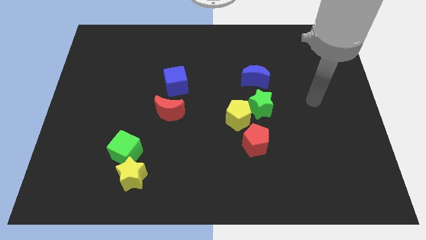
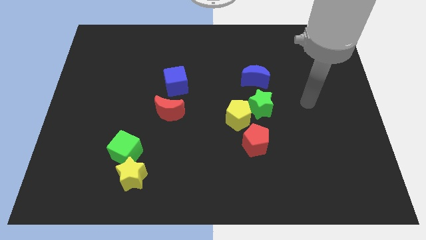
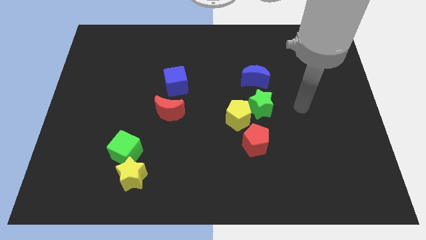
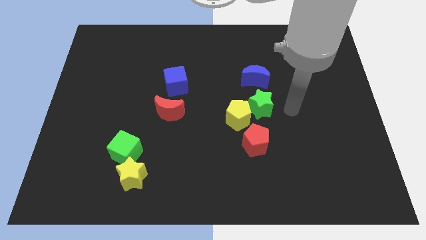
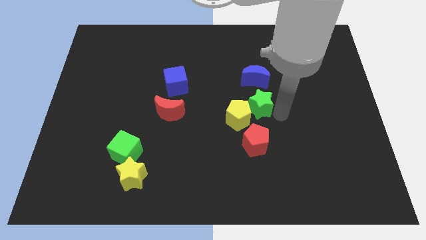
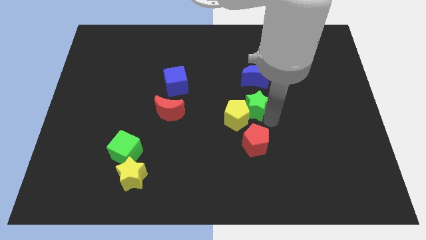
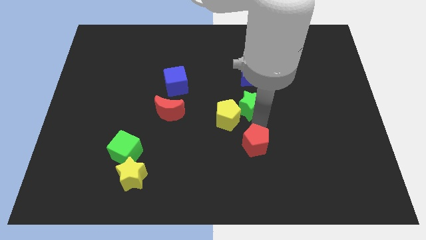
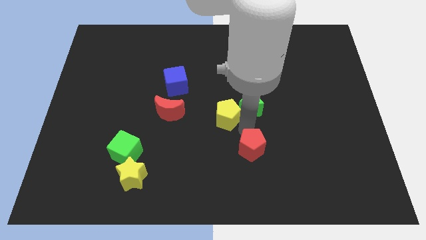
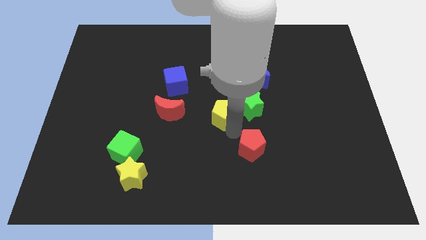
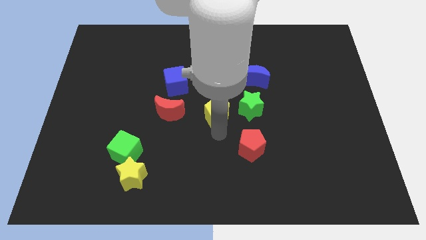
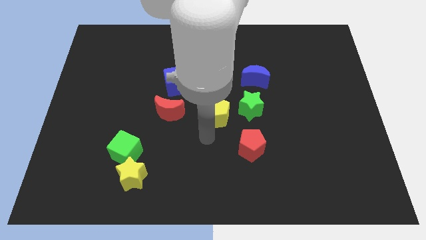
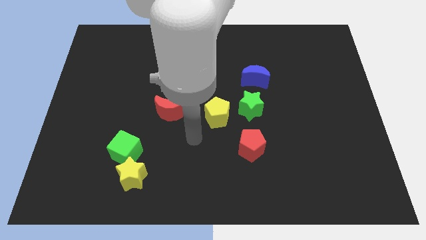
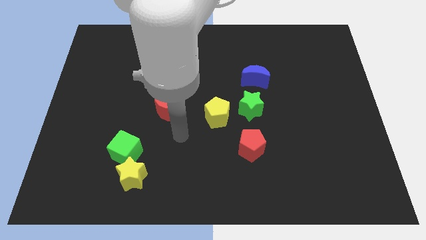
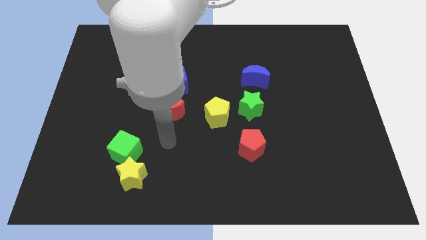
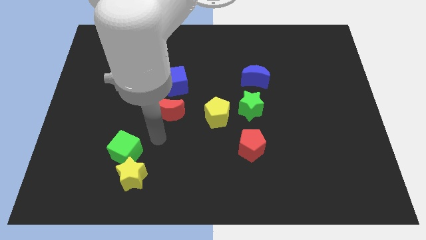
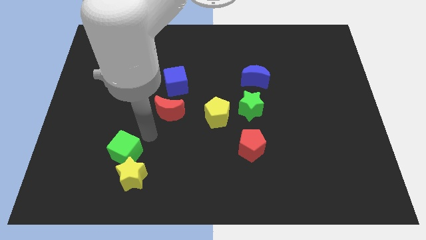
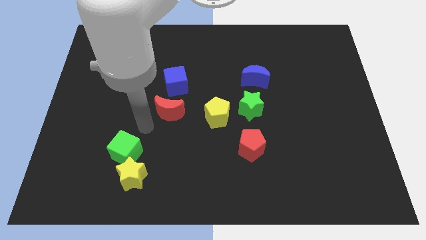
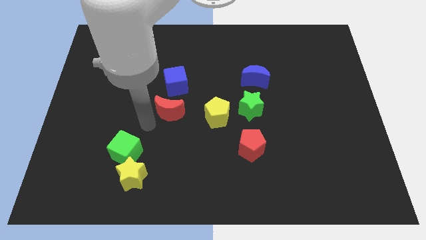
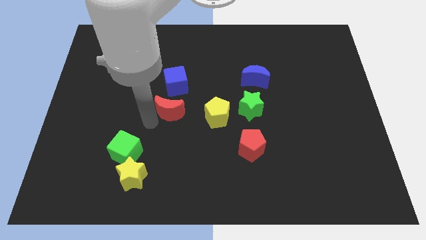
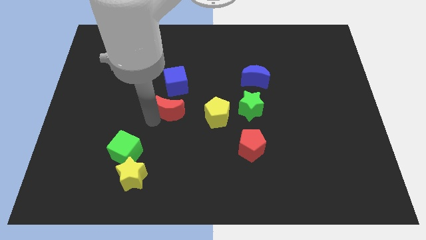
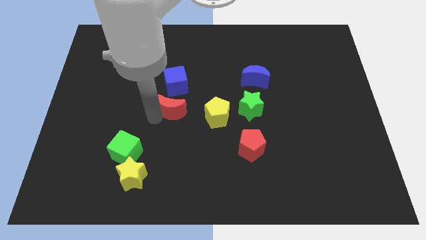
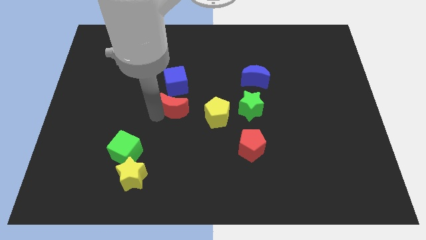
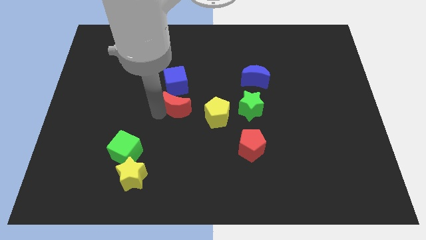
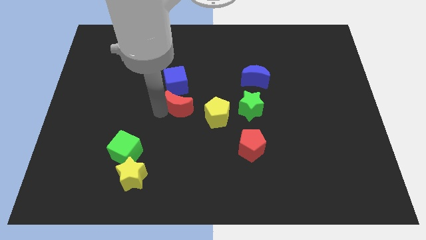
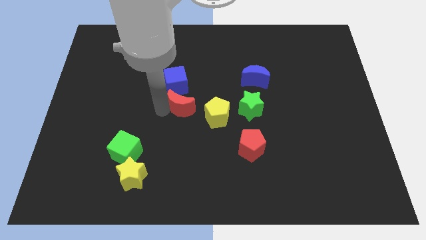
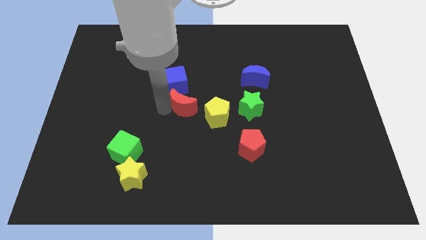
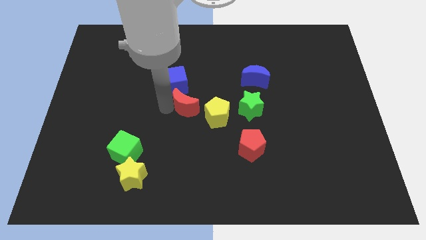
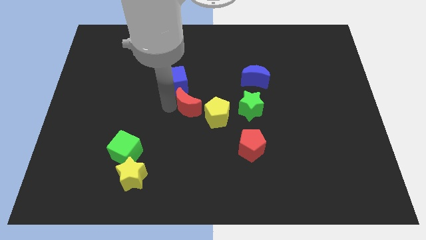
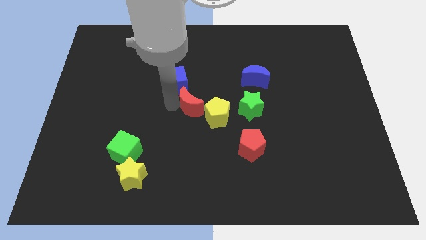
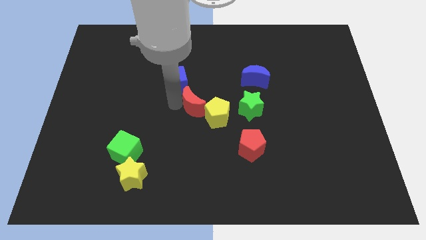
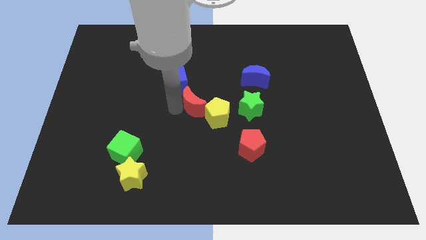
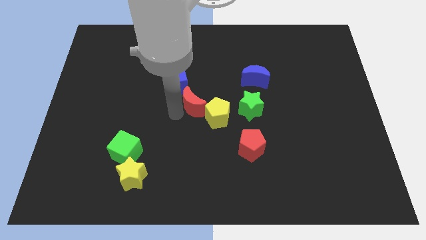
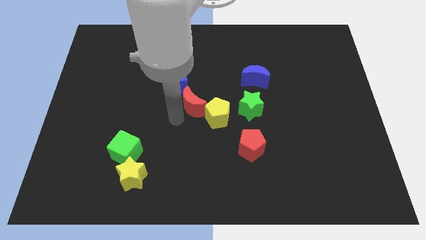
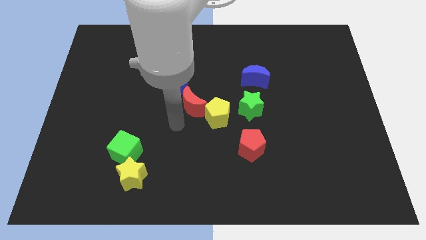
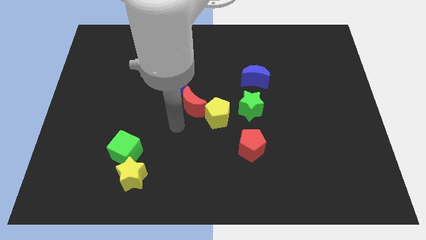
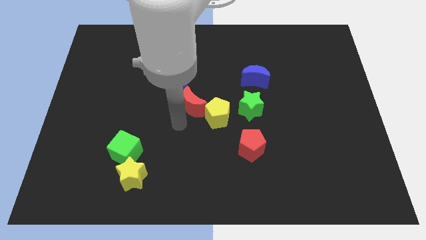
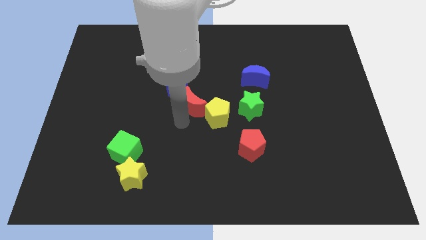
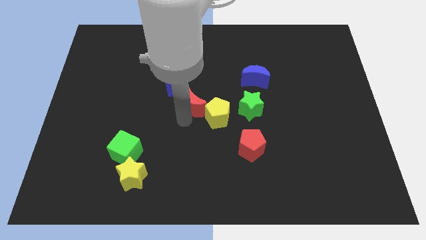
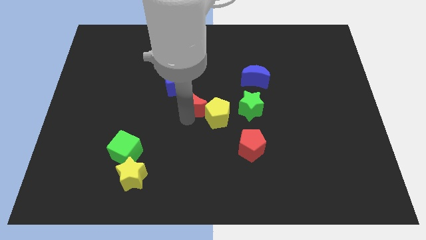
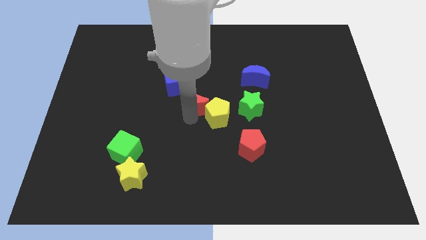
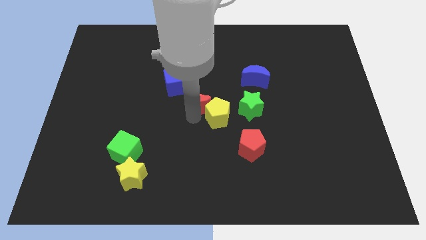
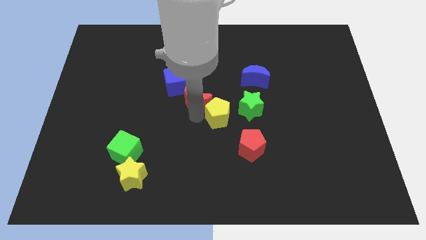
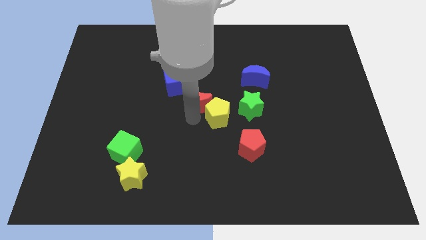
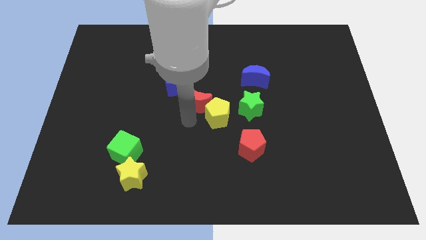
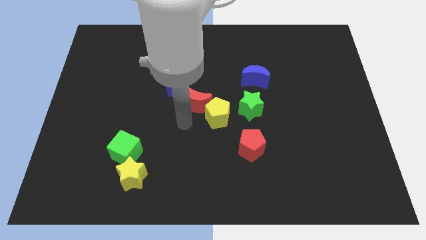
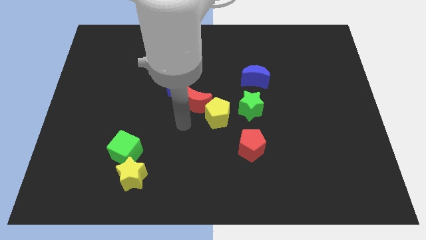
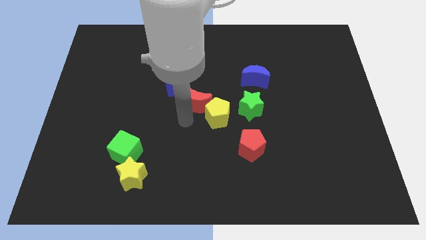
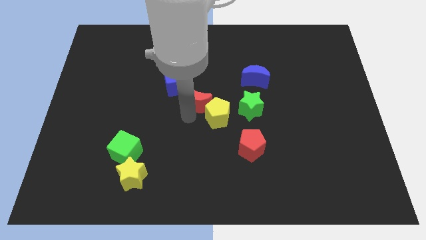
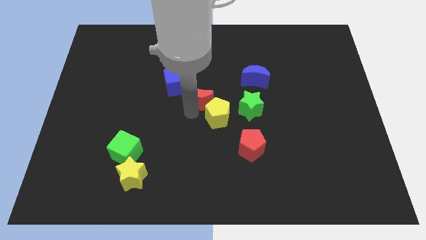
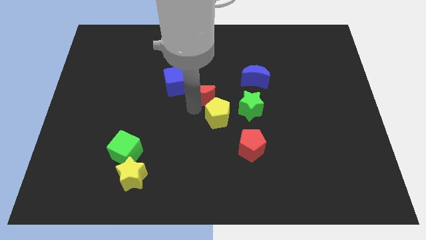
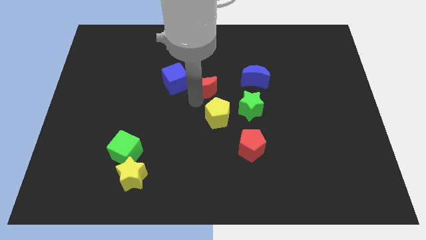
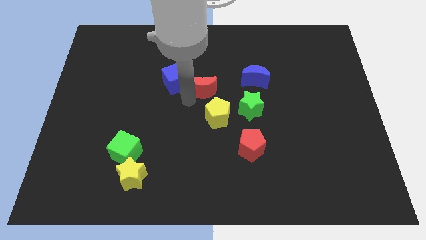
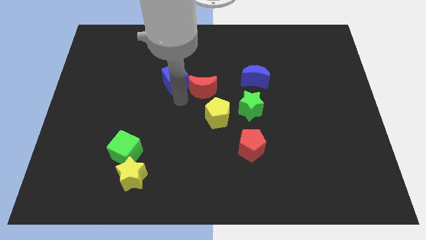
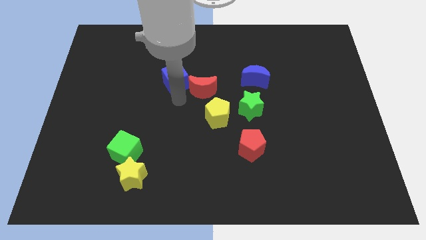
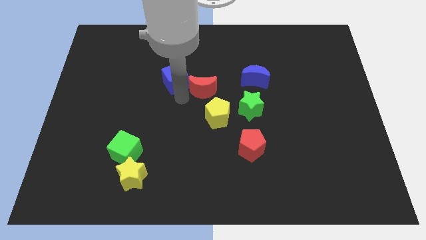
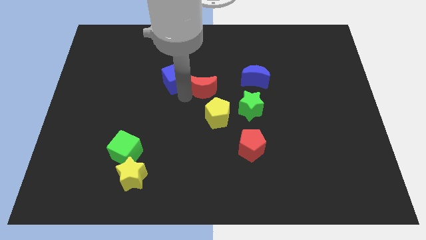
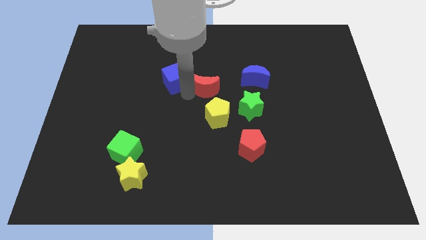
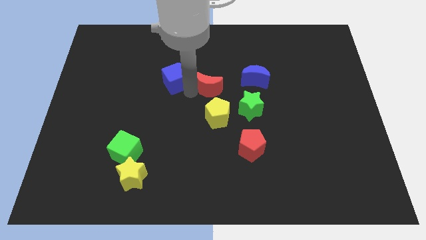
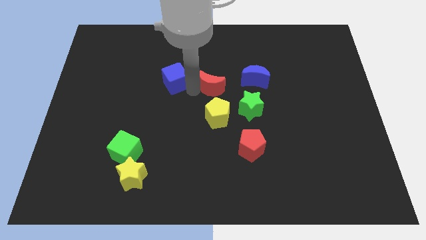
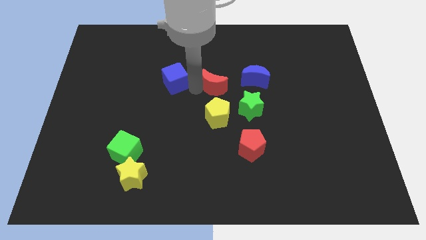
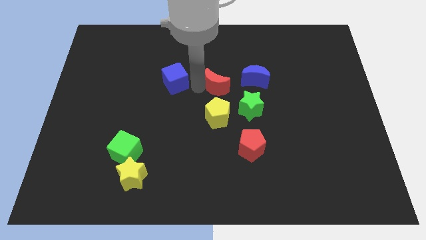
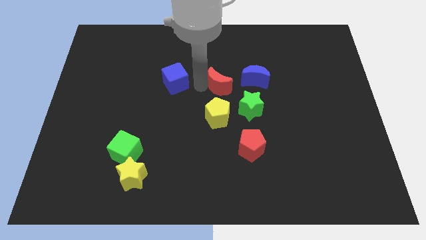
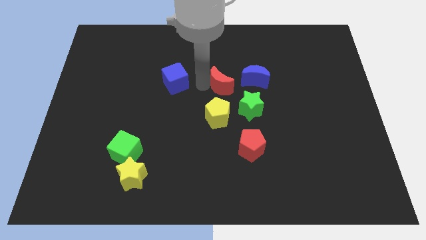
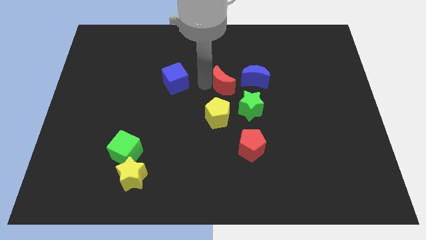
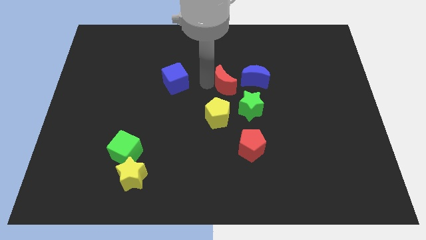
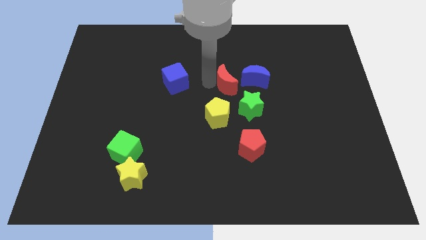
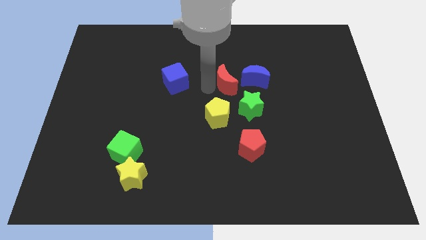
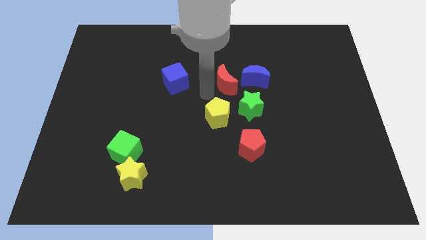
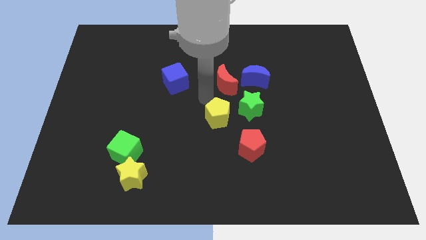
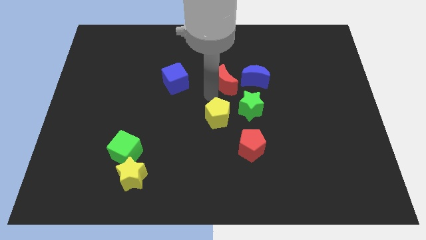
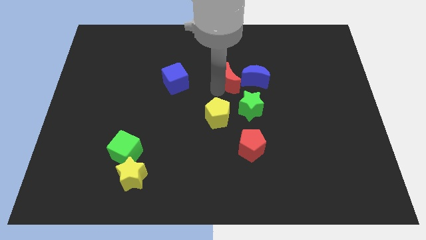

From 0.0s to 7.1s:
push the red moon above the green star

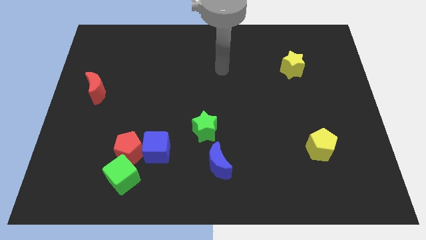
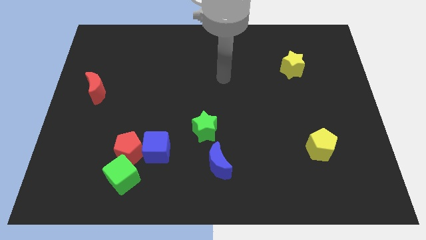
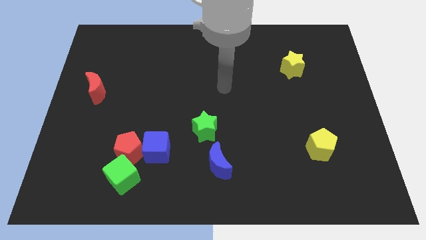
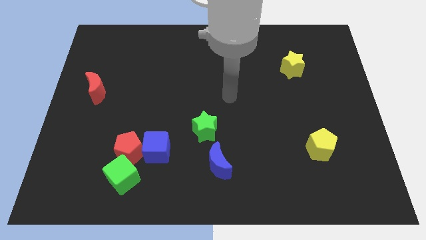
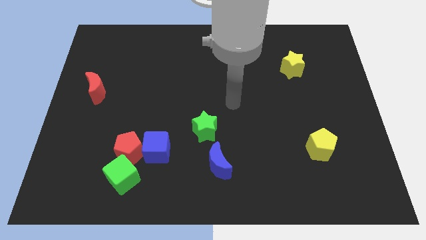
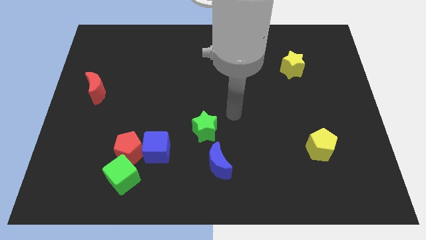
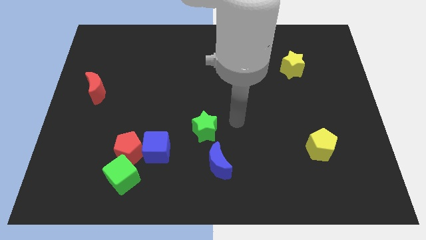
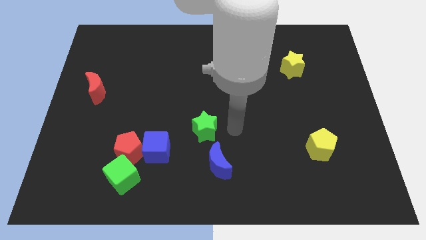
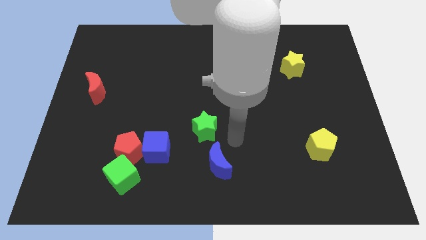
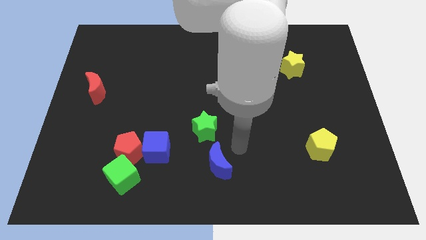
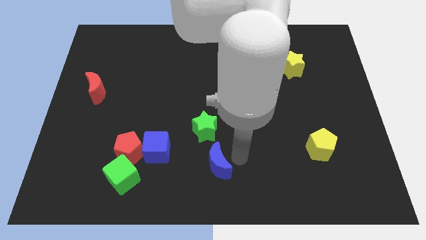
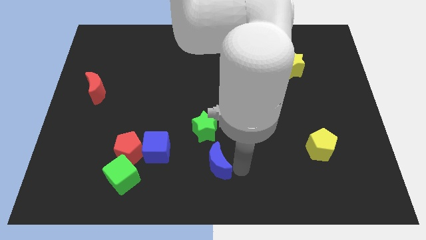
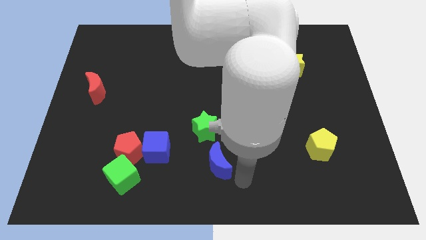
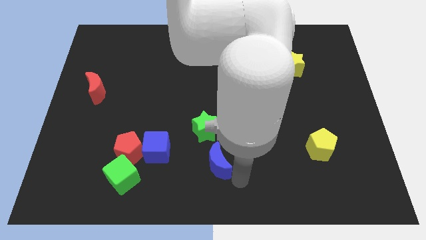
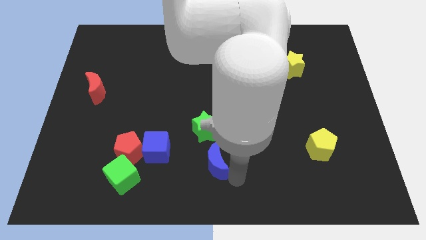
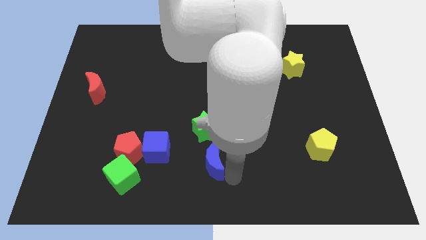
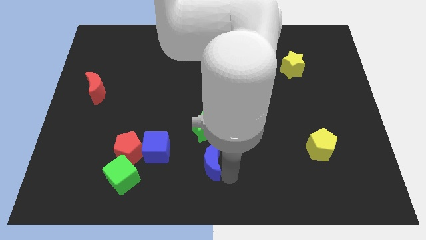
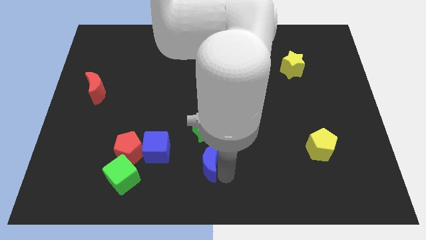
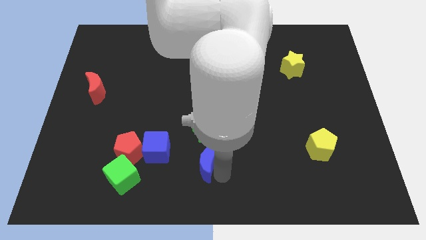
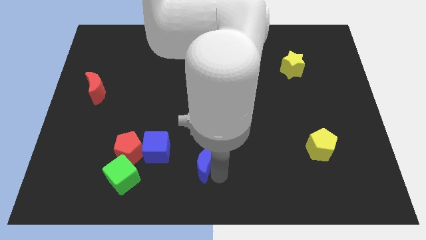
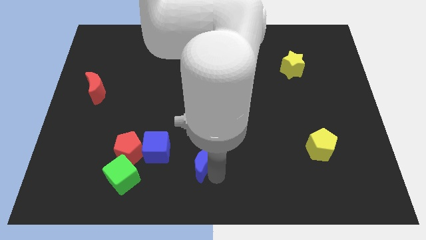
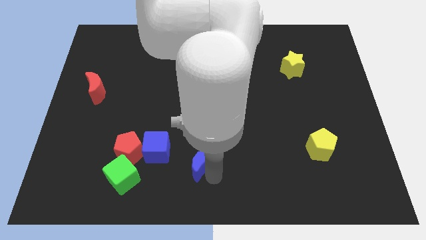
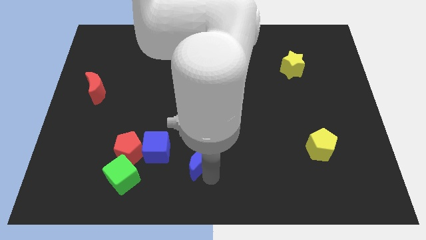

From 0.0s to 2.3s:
slide the blue moon to the right side of the red pentagon
